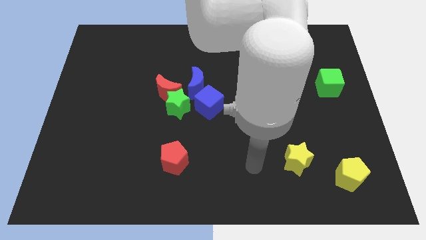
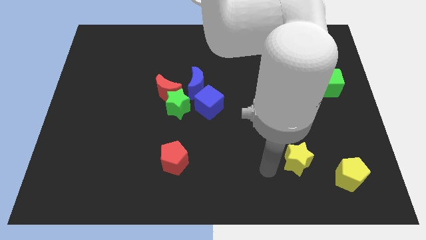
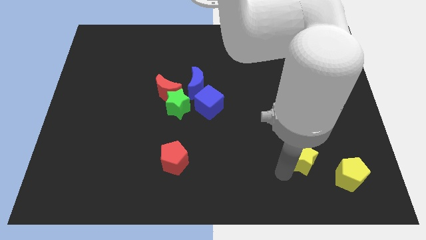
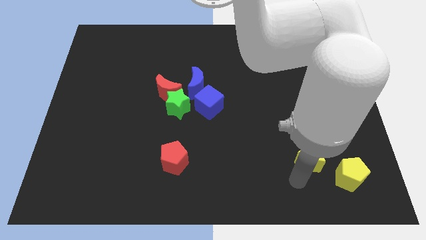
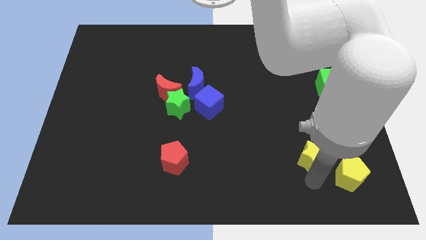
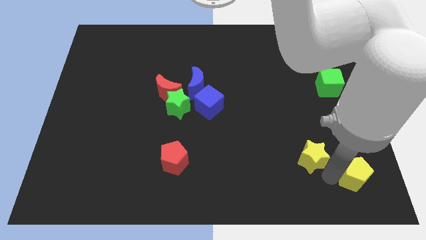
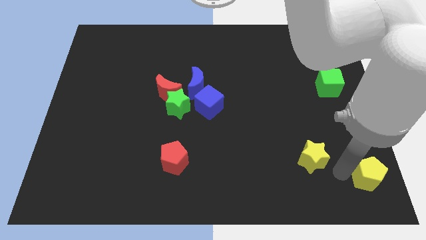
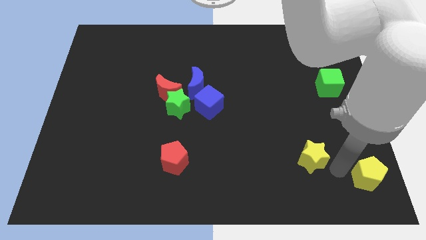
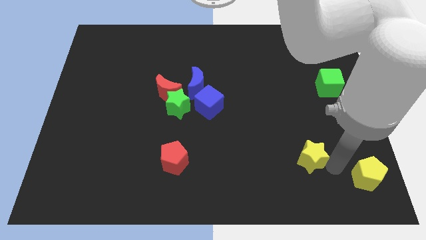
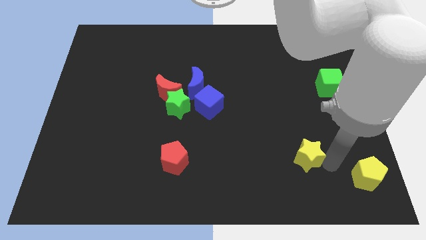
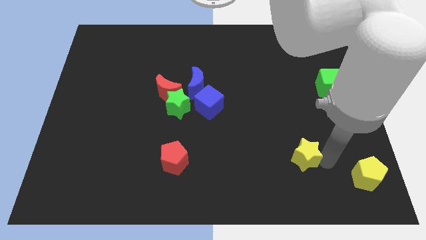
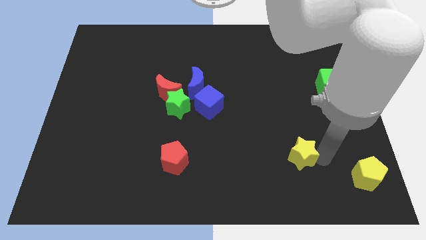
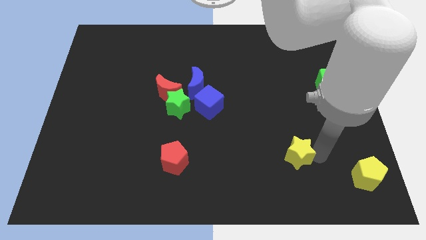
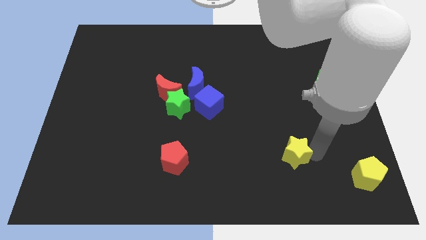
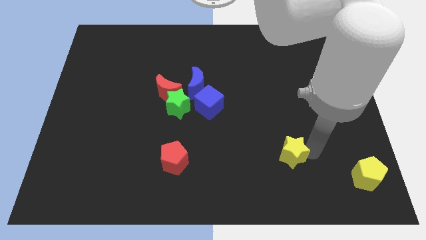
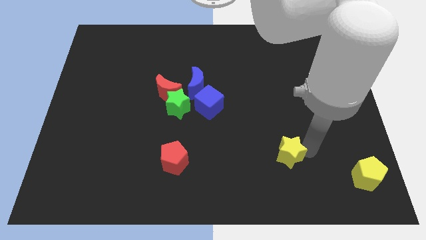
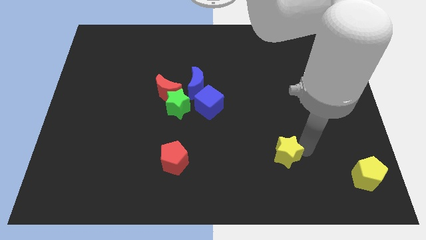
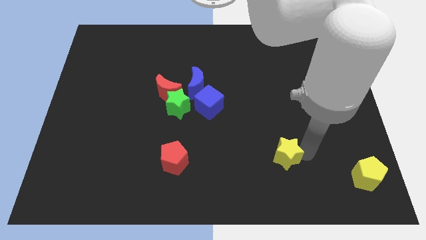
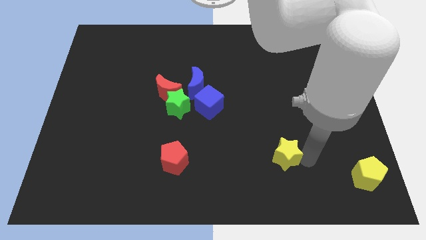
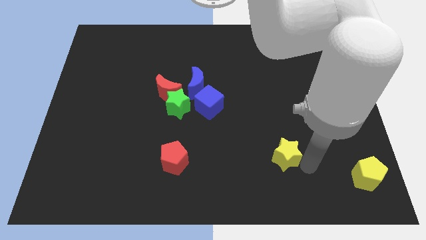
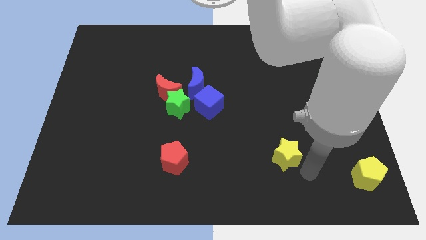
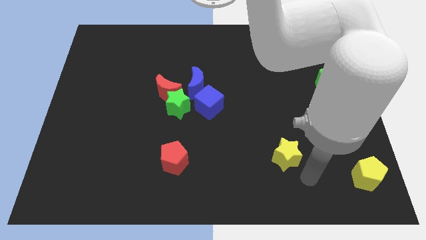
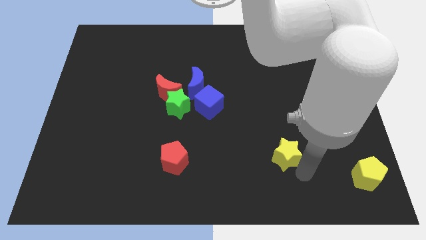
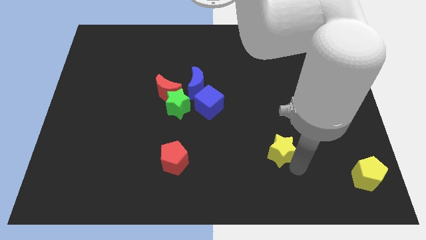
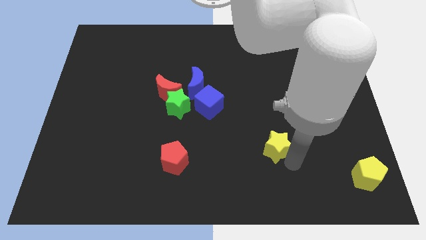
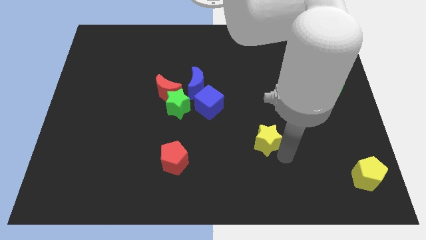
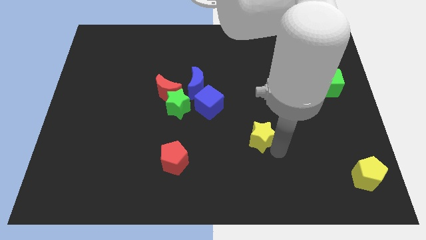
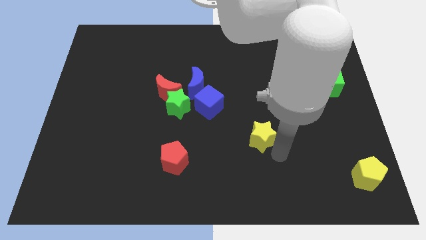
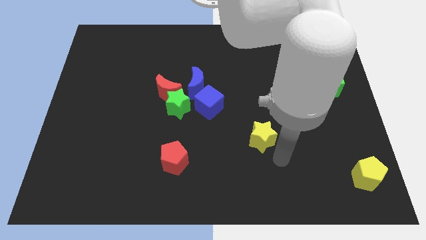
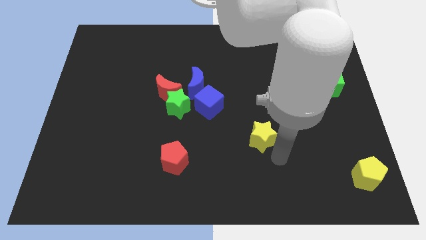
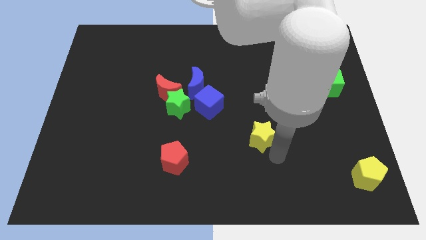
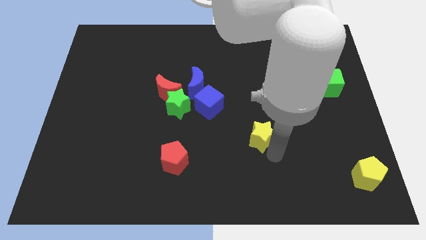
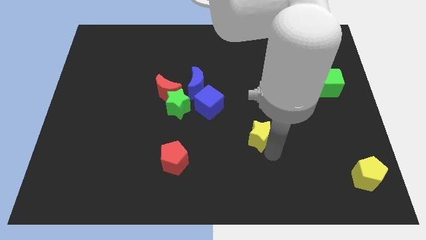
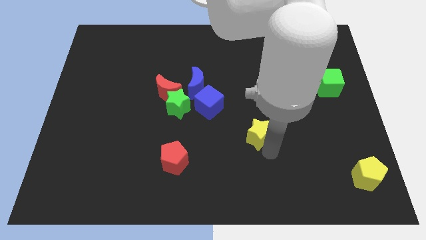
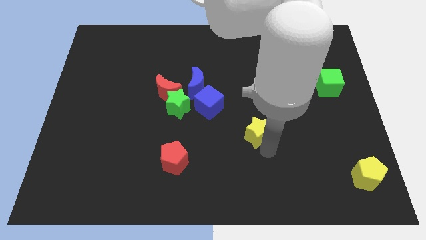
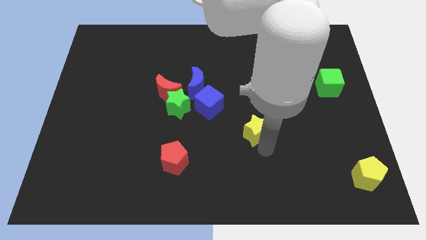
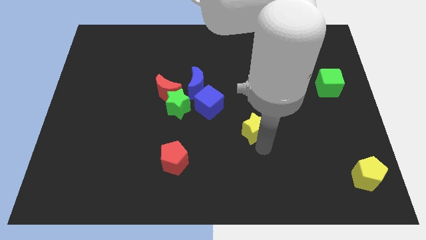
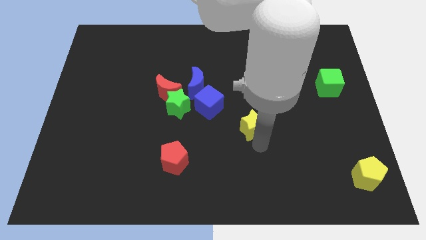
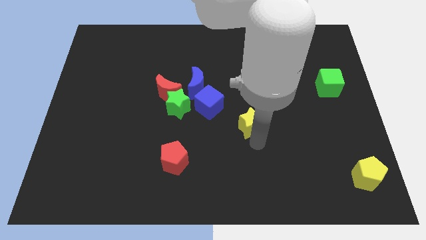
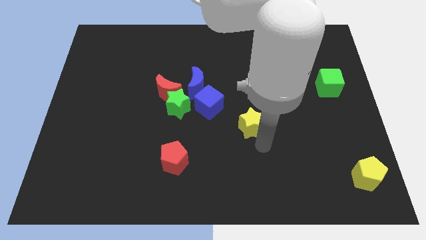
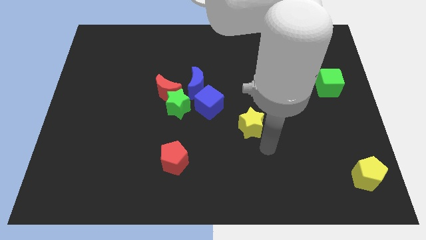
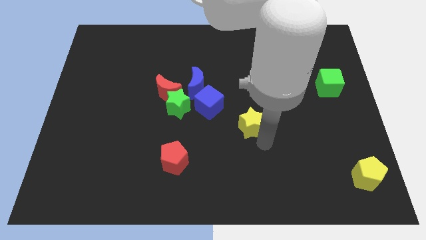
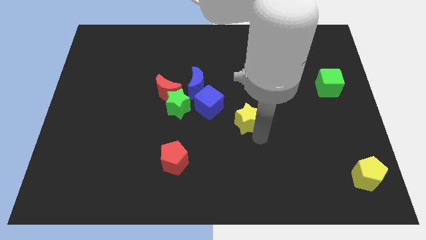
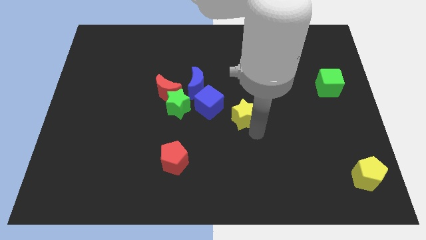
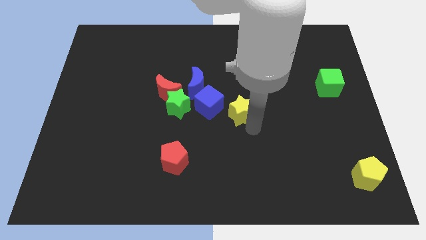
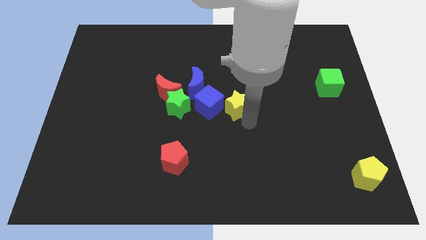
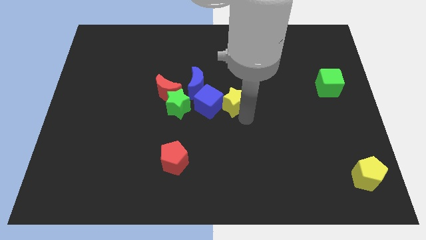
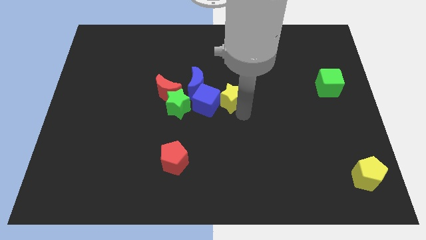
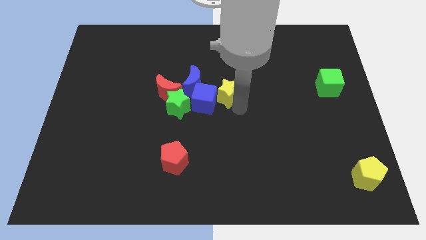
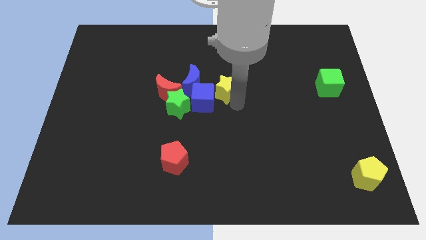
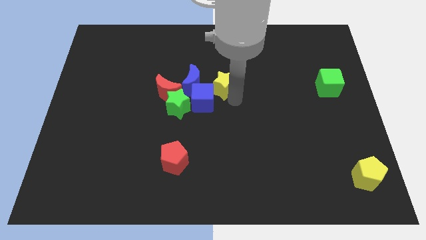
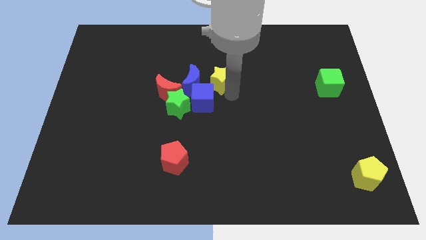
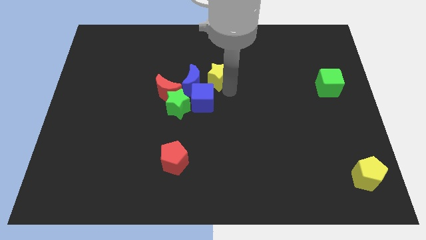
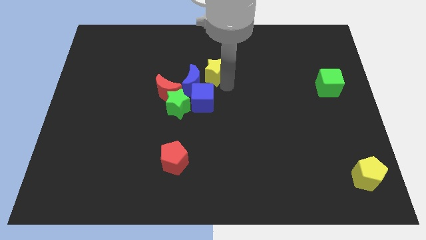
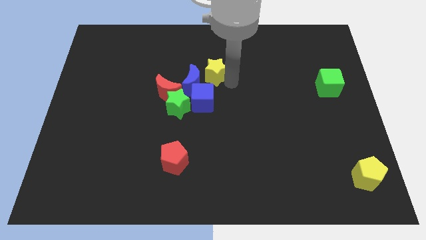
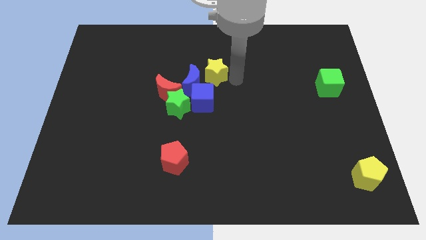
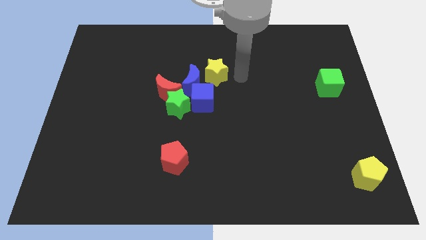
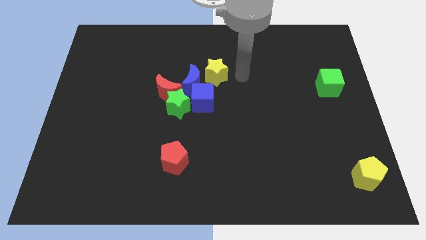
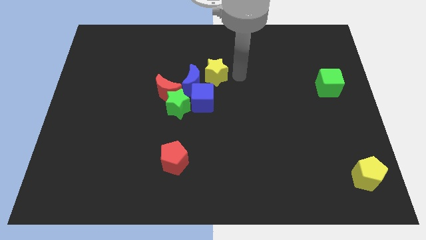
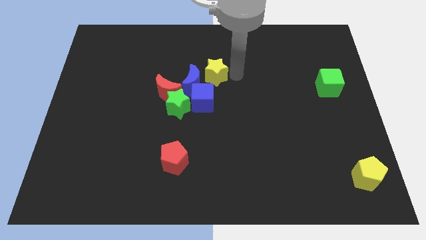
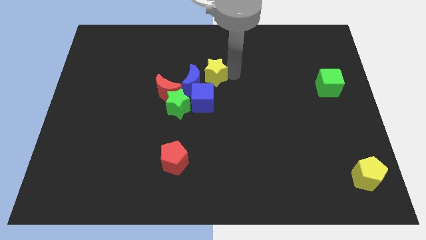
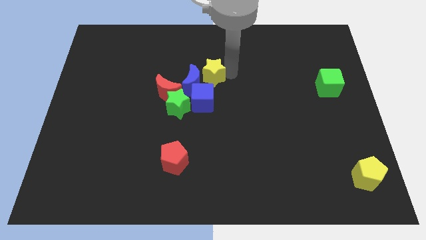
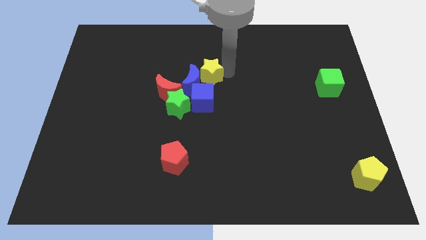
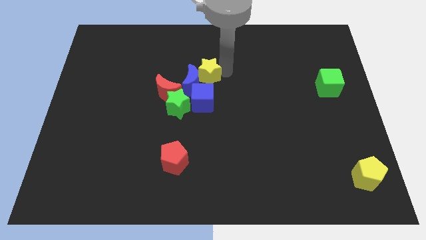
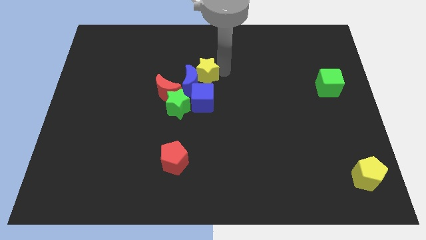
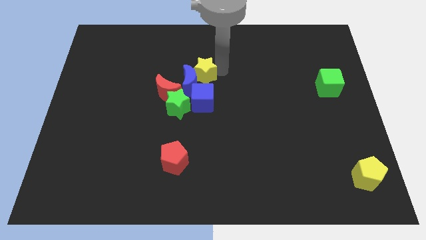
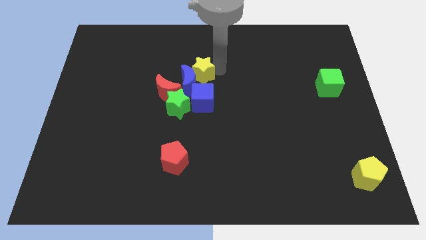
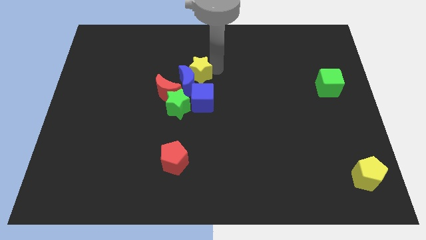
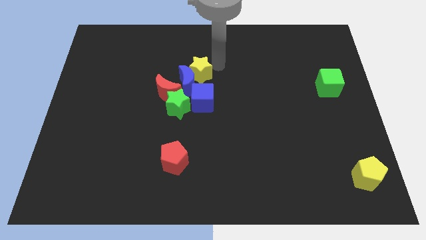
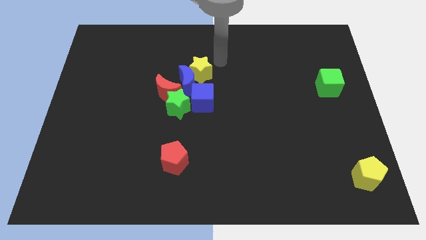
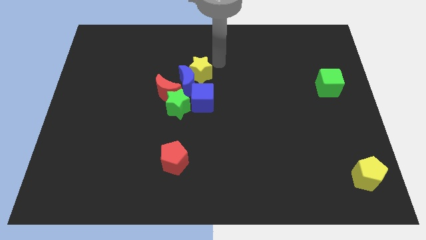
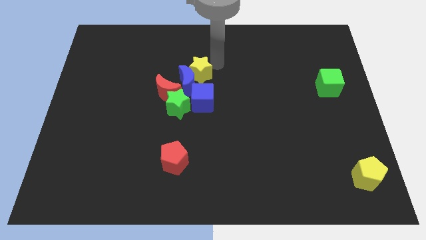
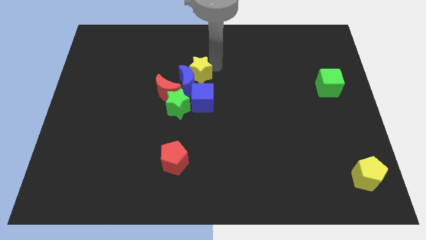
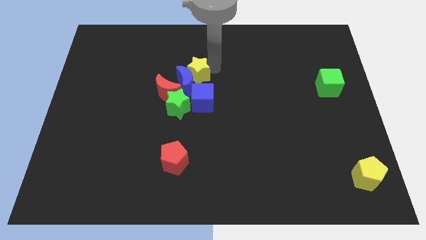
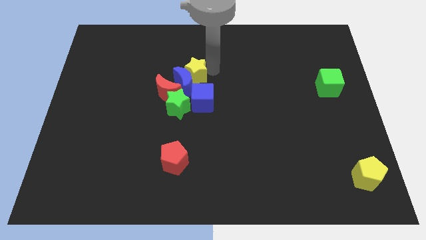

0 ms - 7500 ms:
move the yellow star diagonally up and to the left of the blue cube

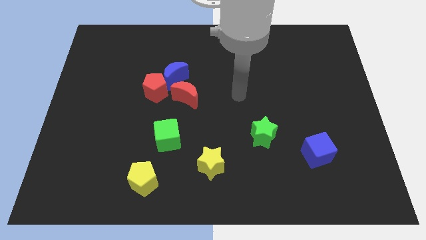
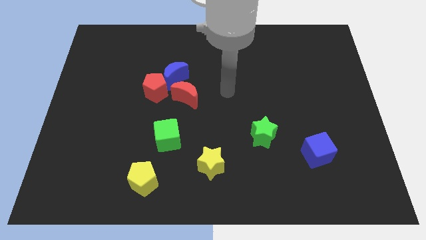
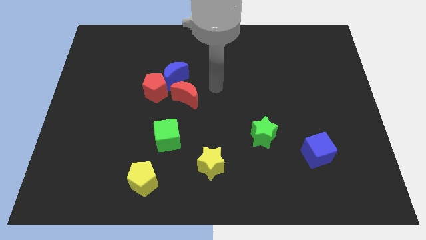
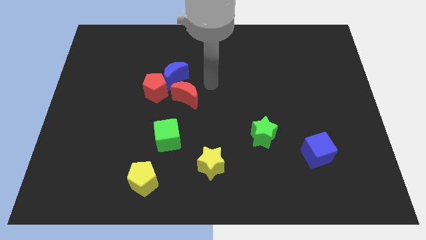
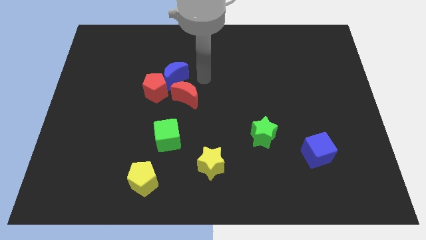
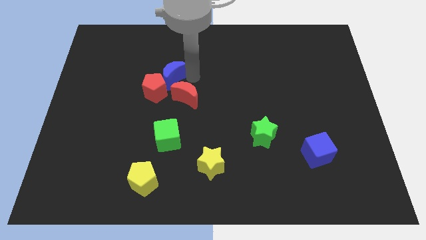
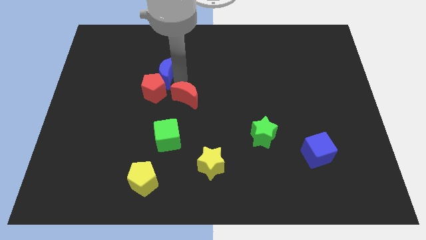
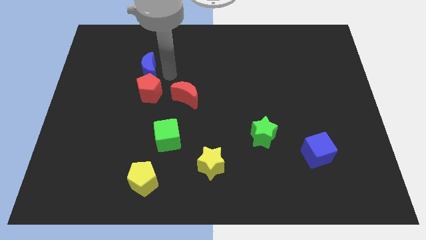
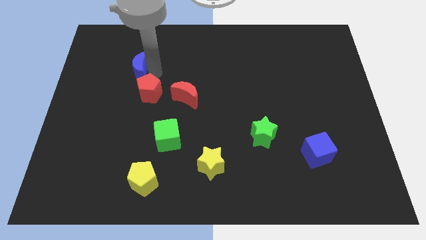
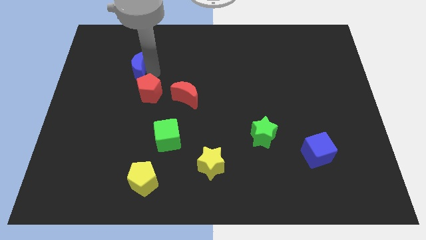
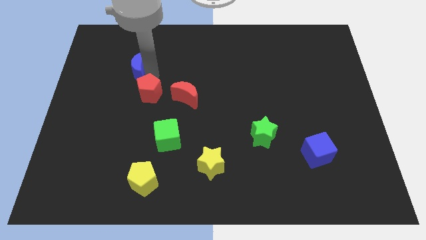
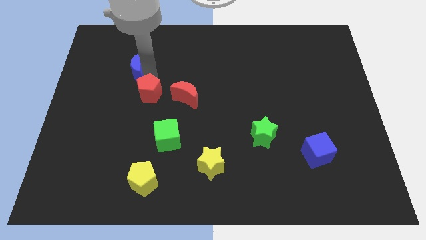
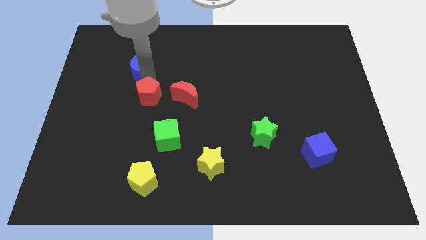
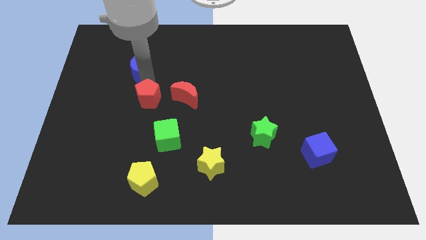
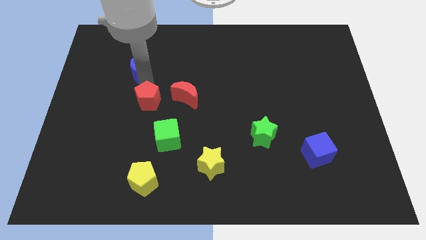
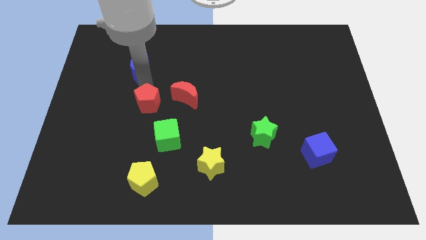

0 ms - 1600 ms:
move the red pentagon diagonally up and to the left of the green cube
